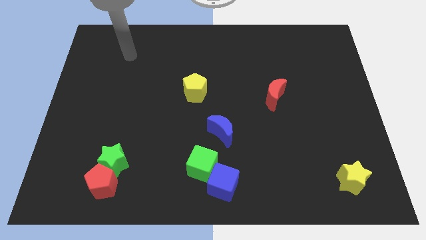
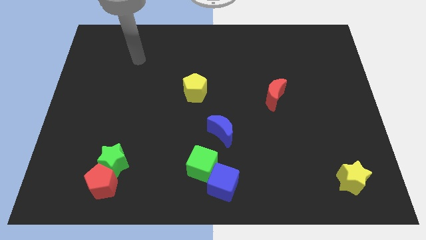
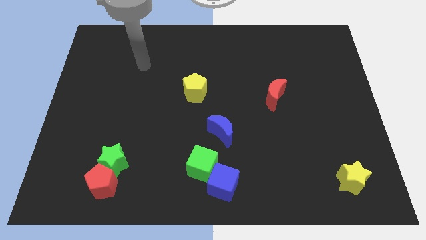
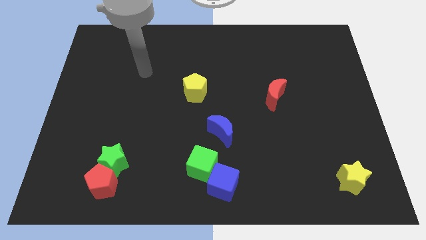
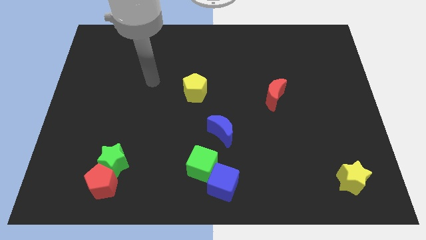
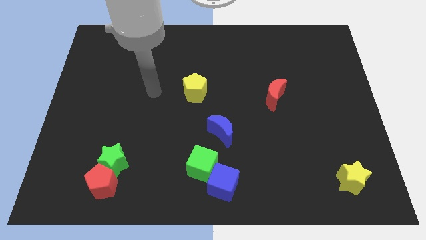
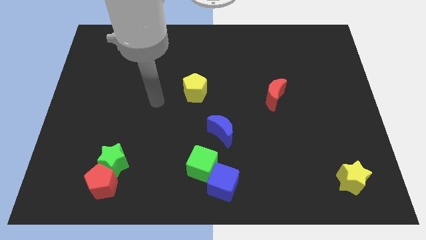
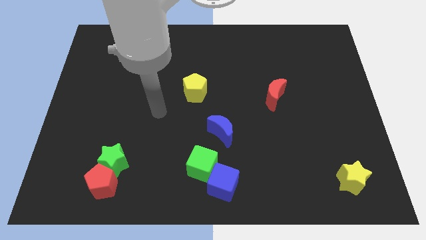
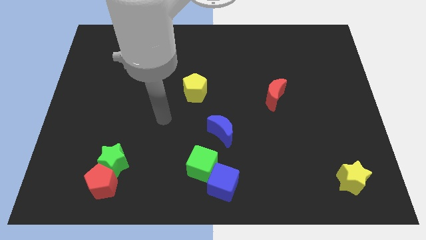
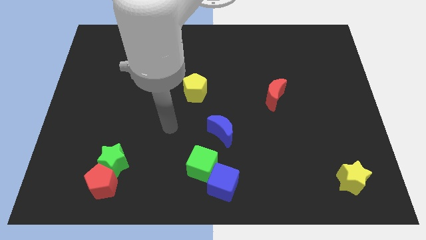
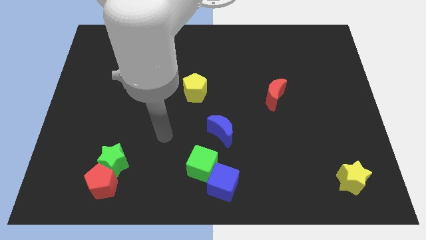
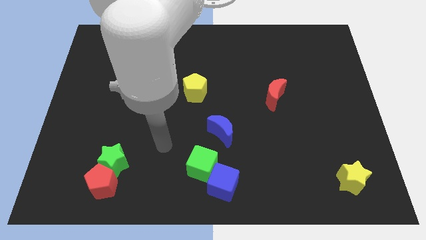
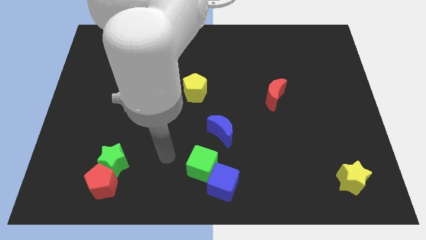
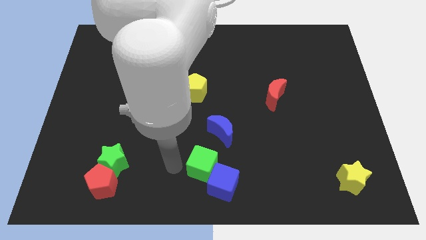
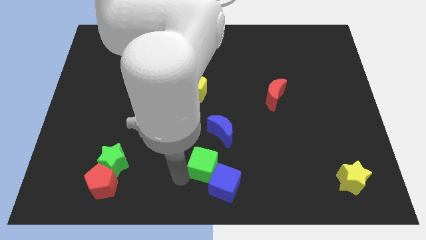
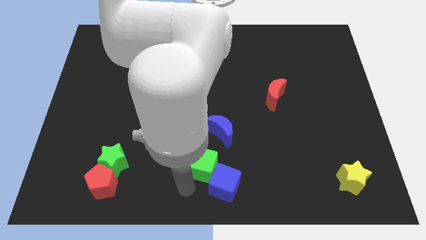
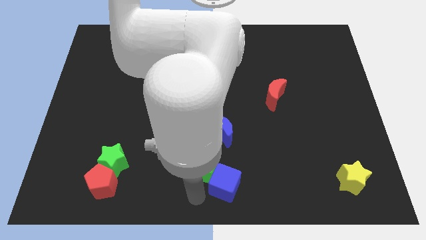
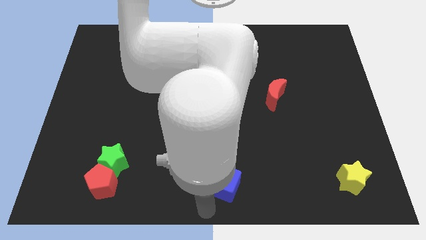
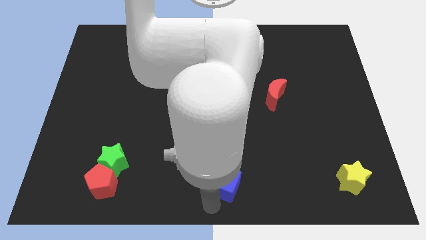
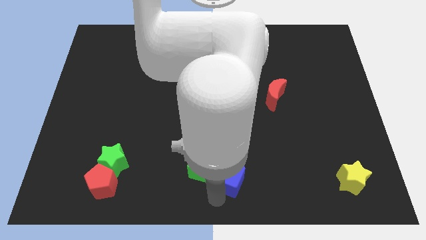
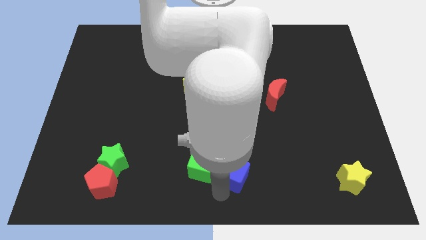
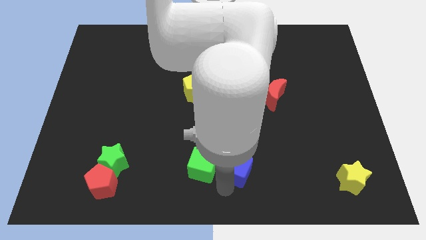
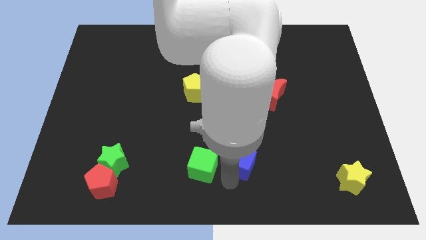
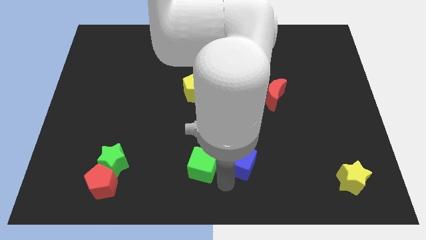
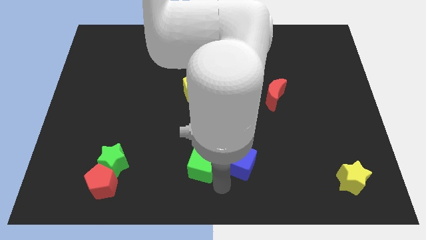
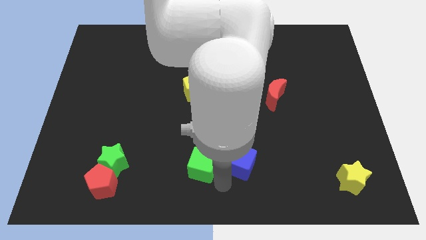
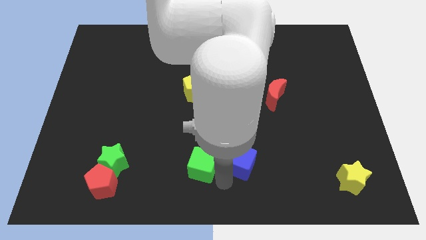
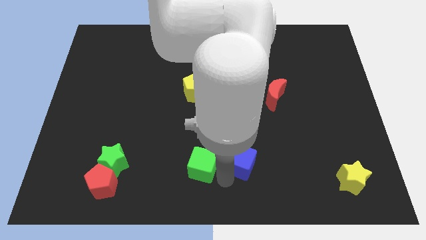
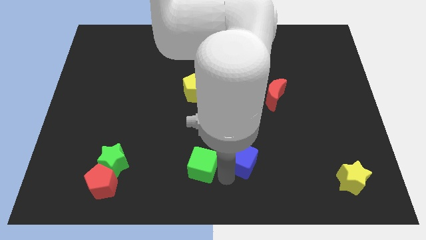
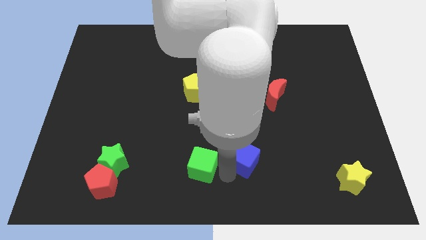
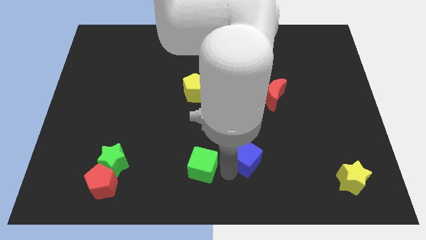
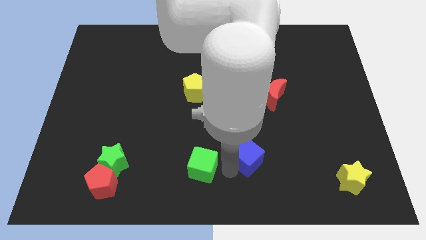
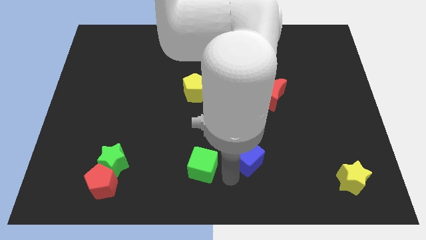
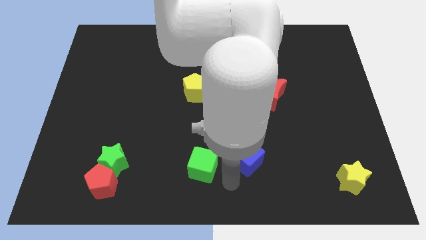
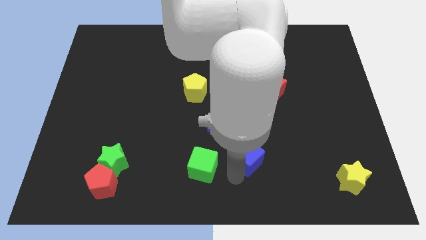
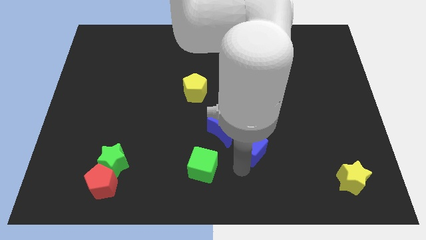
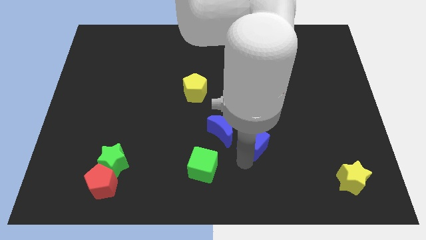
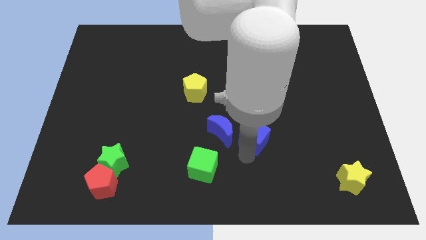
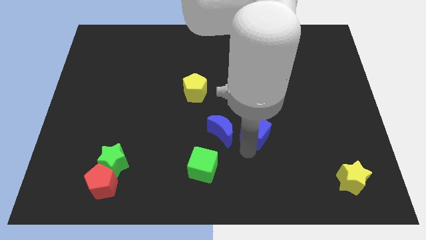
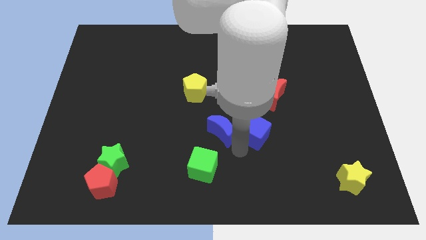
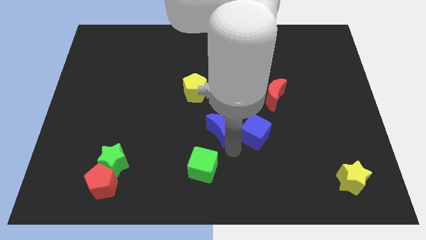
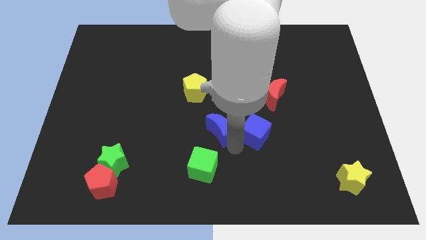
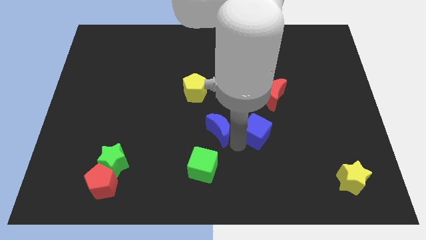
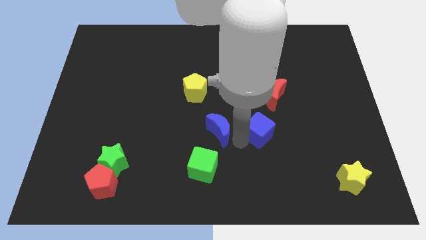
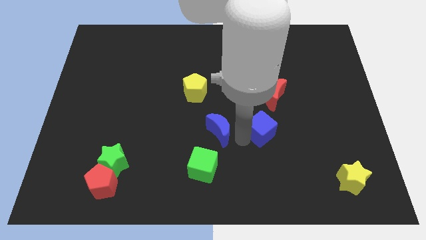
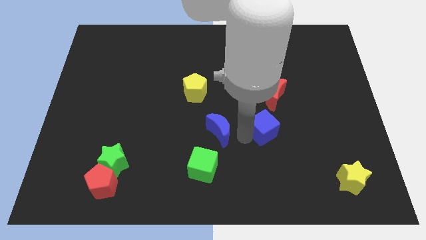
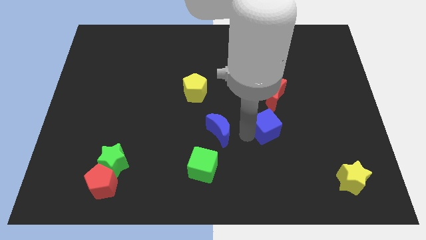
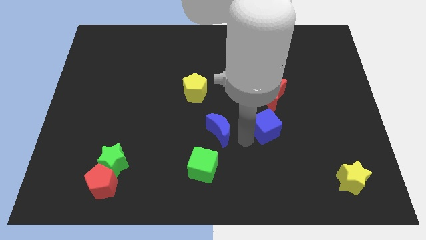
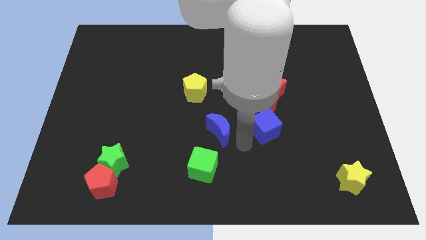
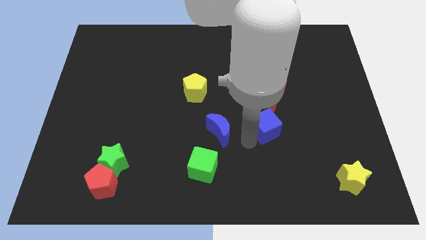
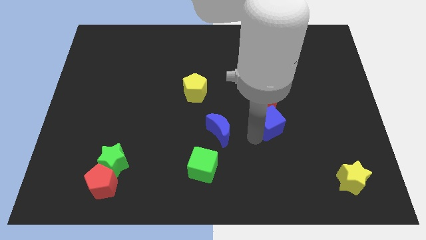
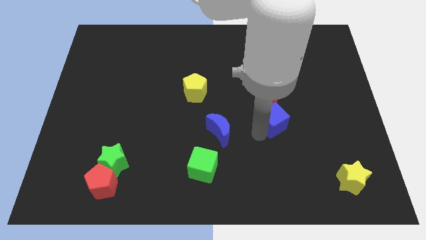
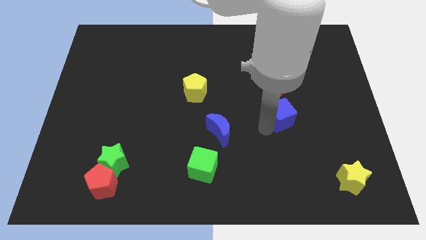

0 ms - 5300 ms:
push the blue cube diagonally upwards and to the right

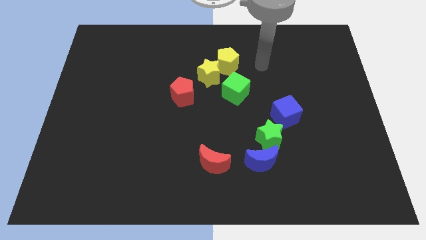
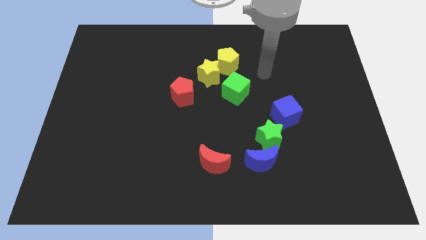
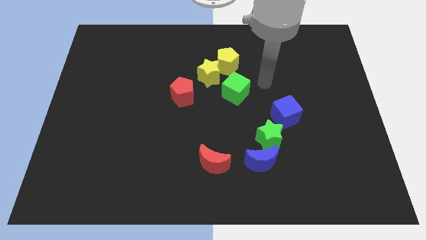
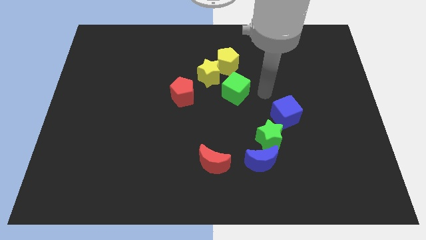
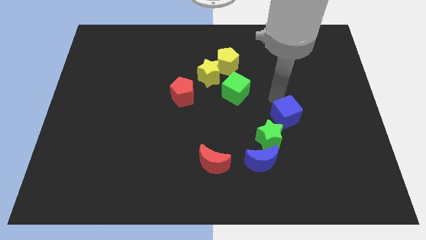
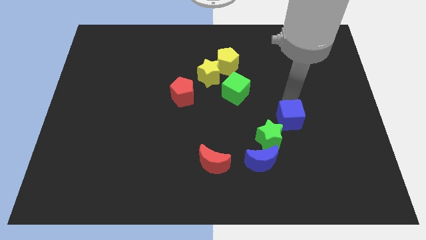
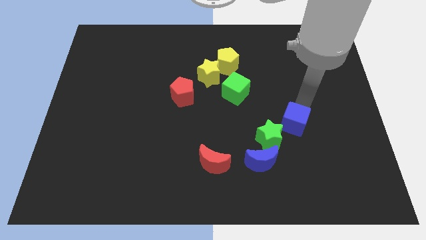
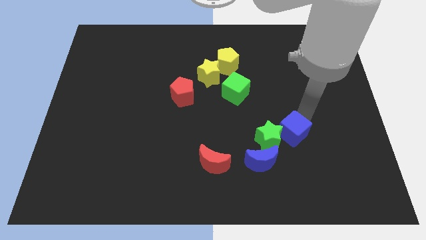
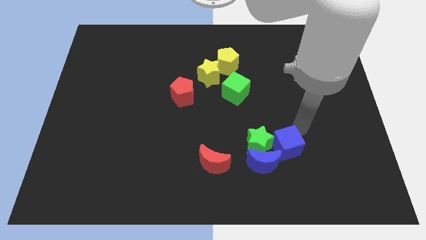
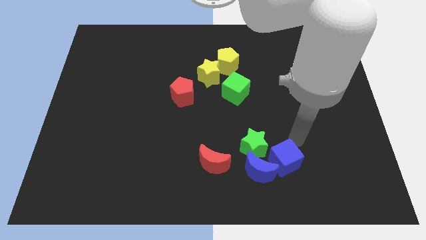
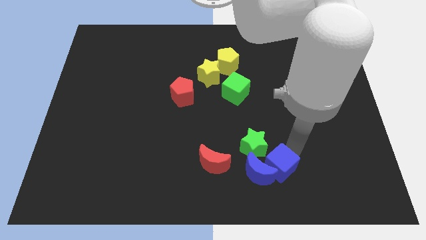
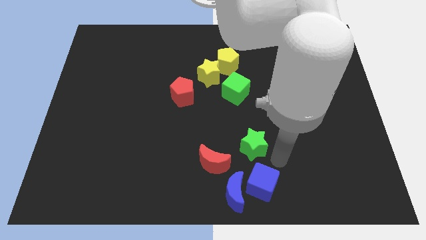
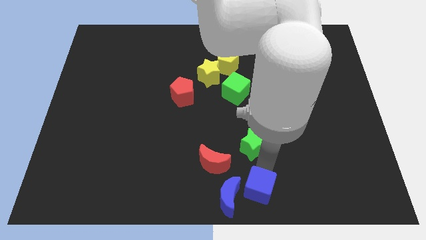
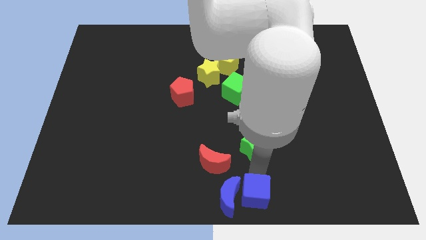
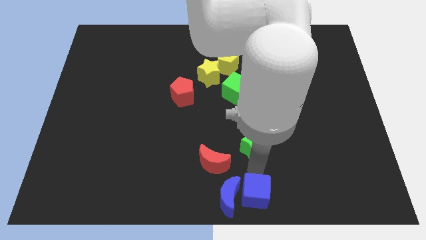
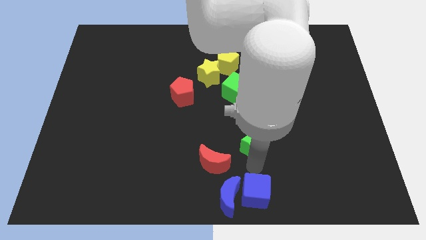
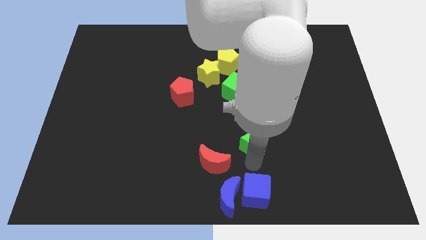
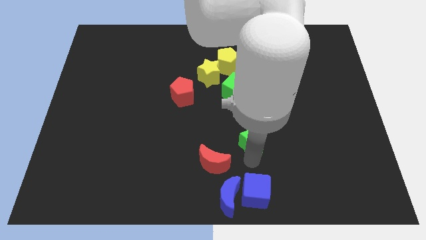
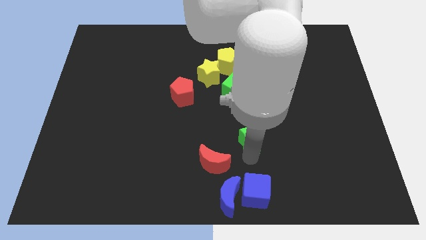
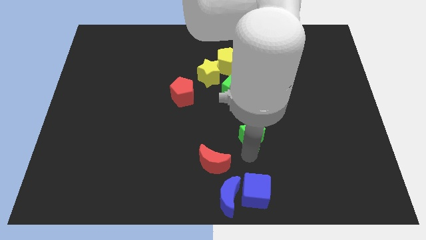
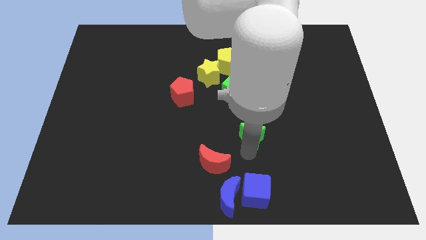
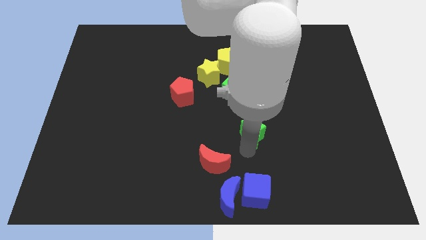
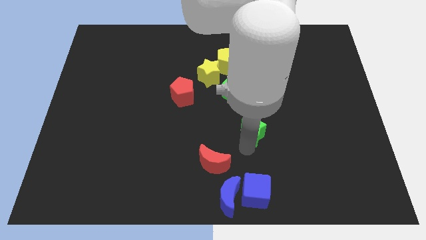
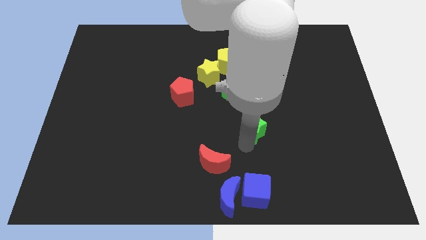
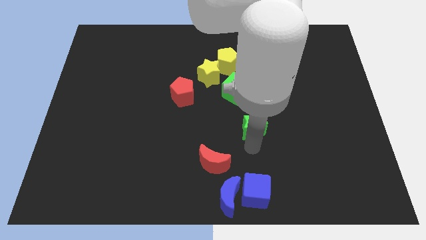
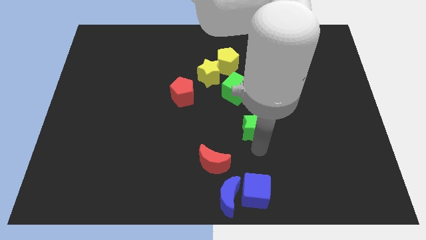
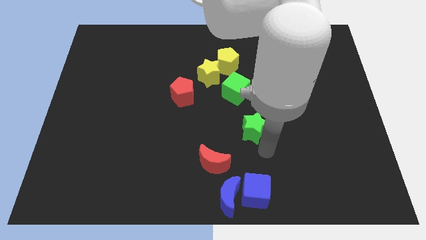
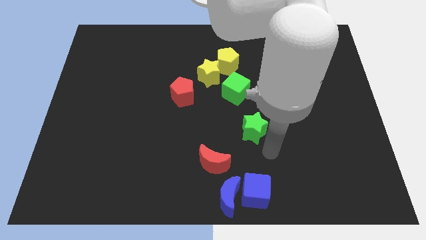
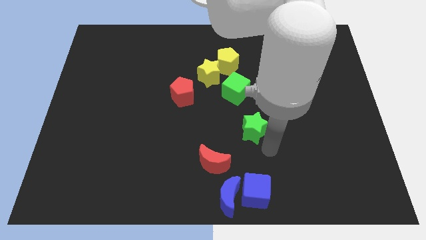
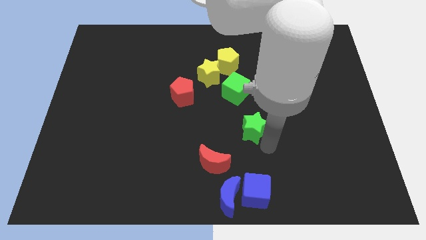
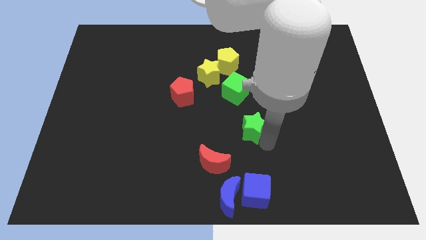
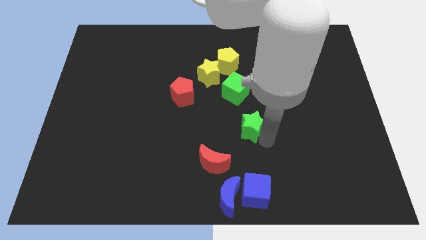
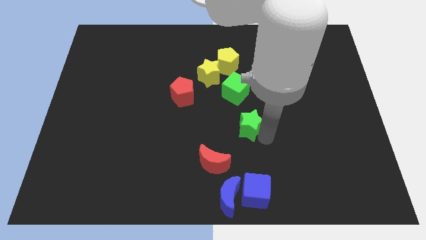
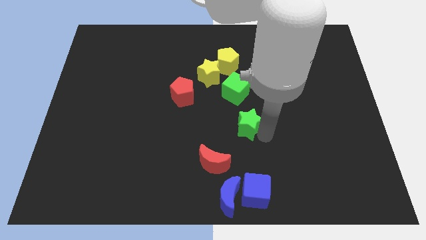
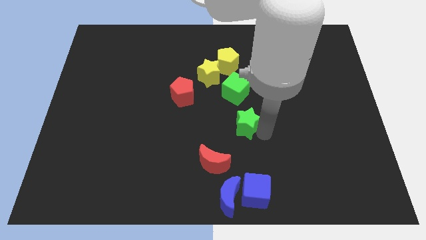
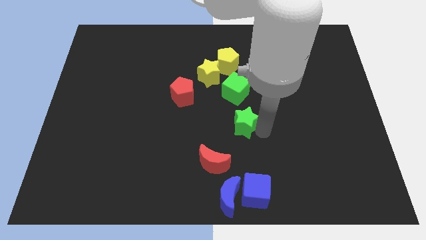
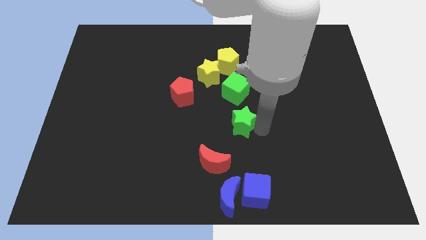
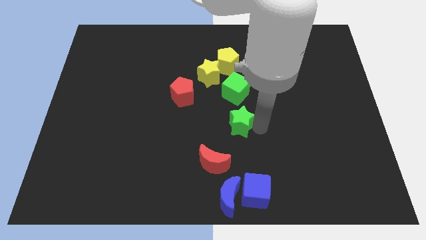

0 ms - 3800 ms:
slightly slide the green star up and to the left
